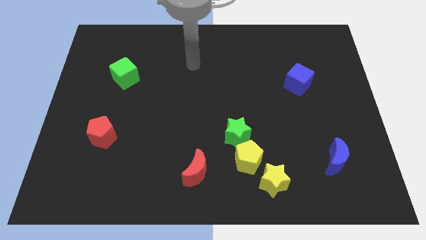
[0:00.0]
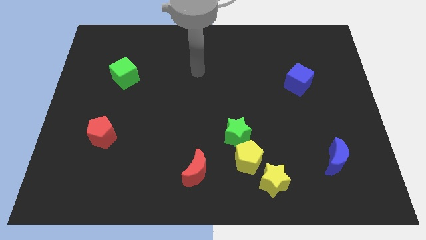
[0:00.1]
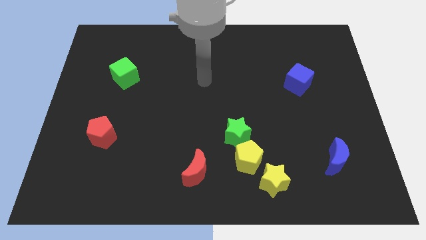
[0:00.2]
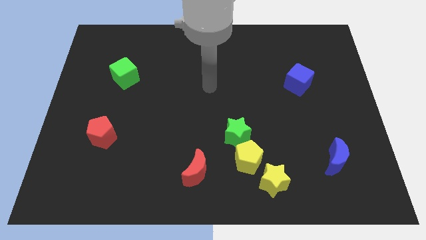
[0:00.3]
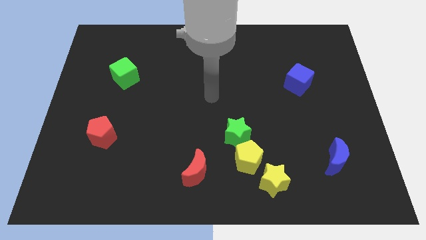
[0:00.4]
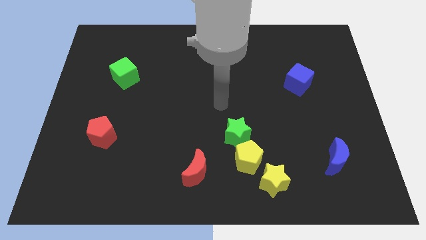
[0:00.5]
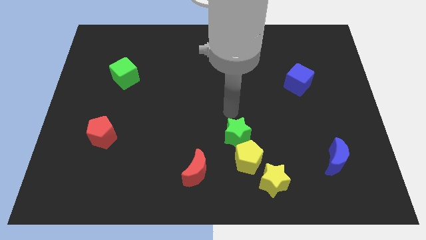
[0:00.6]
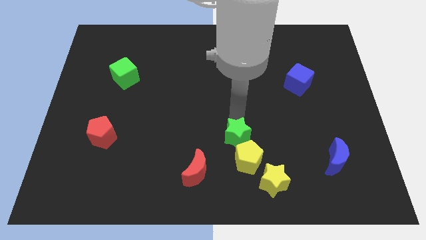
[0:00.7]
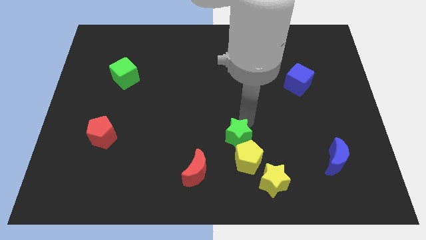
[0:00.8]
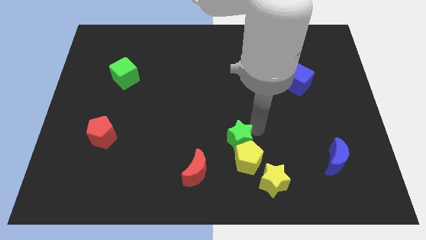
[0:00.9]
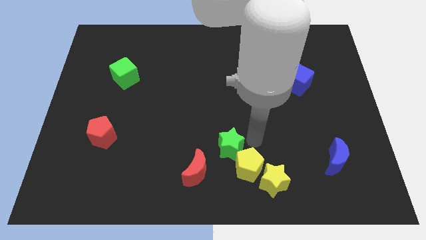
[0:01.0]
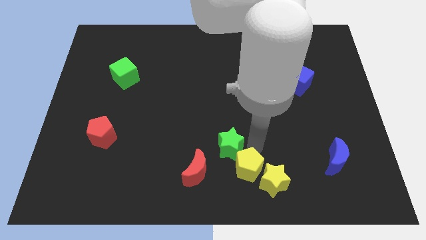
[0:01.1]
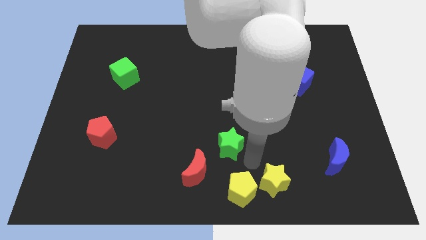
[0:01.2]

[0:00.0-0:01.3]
pull the green star apart from the yellow pentagon

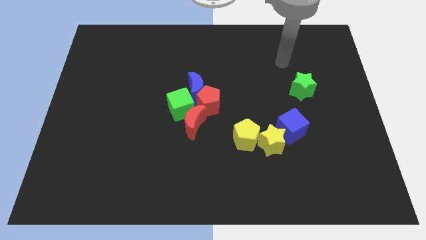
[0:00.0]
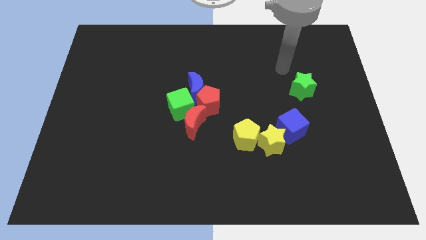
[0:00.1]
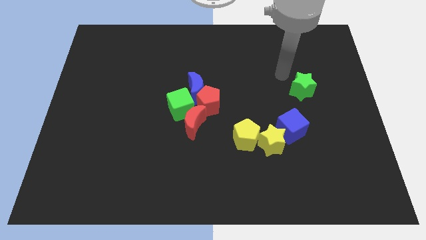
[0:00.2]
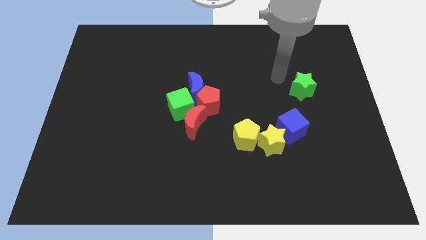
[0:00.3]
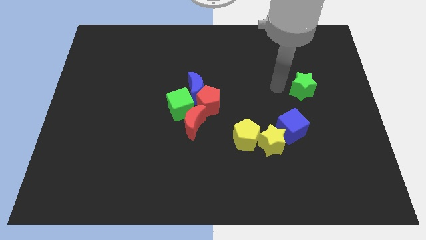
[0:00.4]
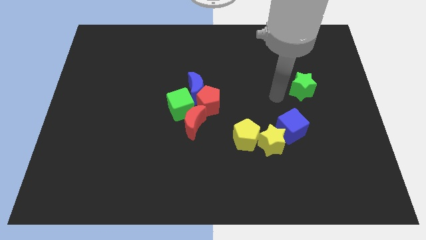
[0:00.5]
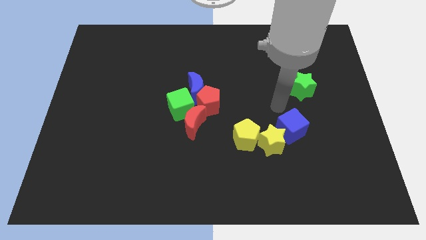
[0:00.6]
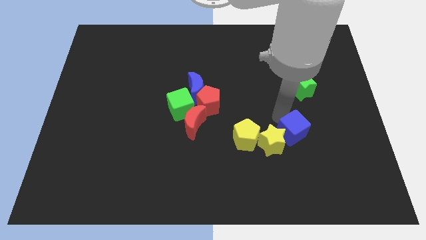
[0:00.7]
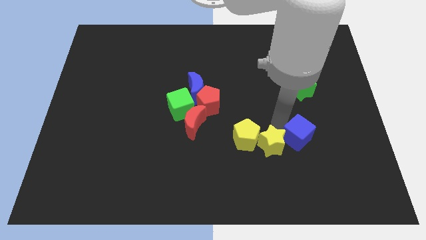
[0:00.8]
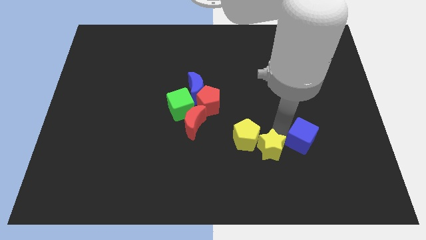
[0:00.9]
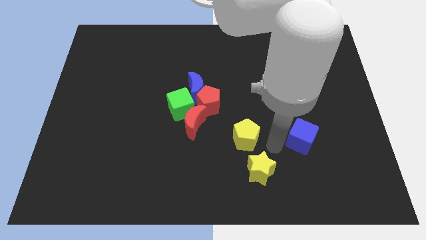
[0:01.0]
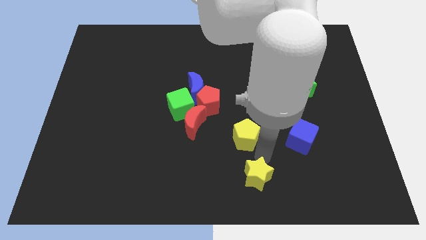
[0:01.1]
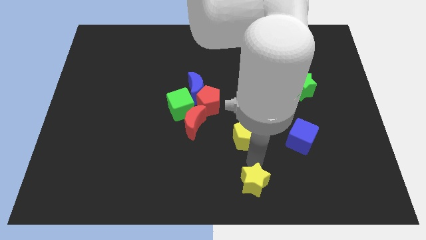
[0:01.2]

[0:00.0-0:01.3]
separate the yellow pentagon from the yellow star

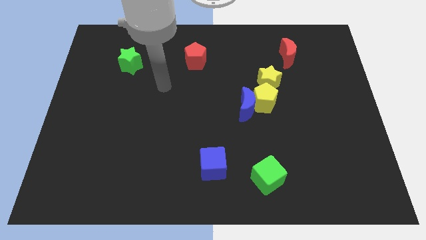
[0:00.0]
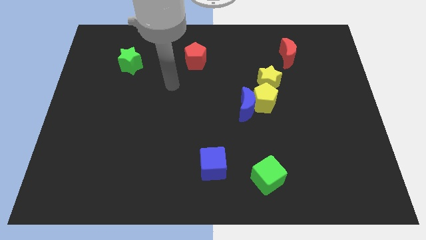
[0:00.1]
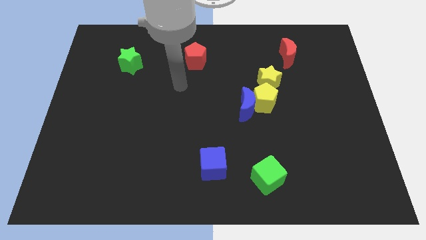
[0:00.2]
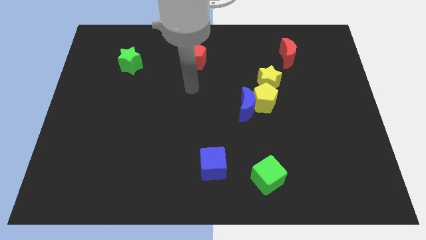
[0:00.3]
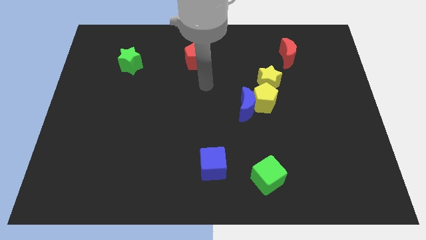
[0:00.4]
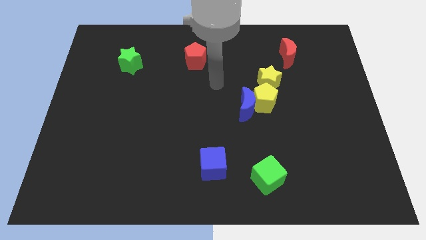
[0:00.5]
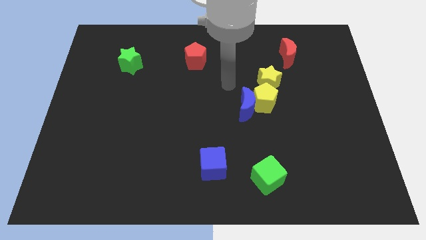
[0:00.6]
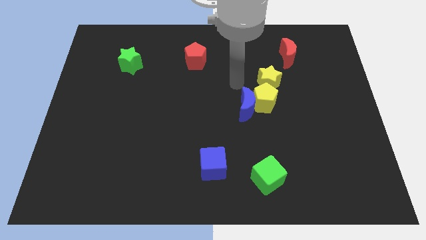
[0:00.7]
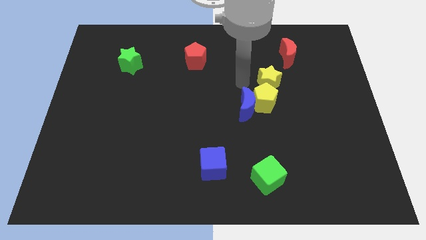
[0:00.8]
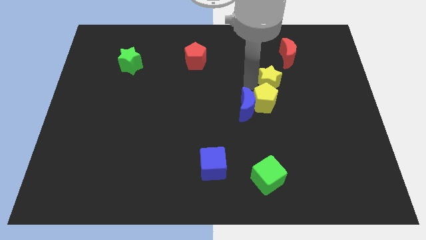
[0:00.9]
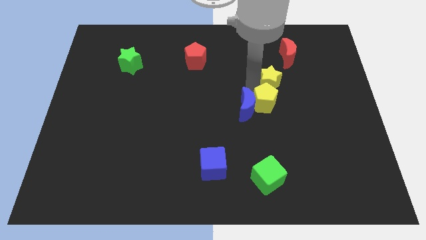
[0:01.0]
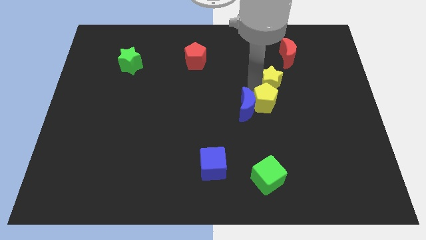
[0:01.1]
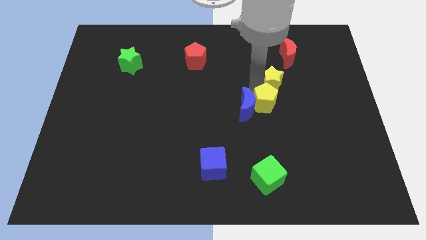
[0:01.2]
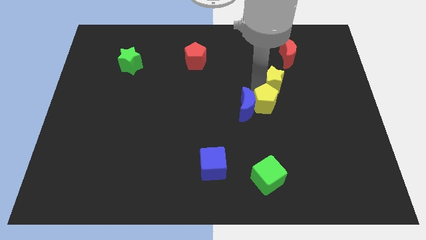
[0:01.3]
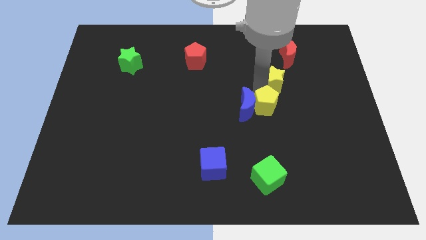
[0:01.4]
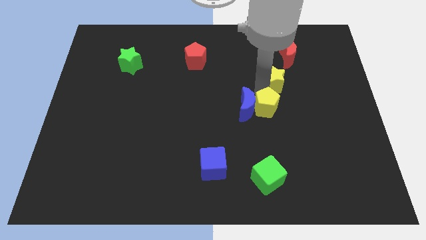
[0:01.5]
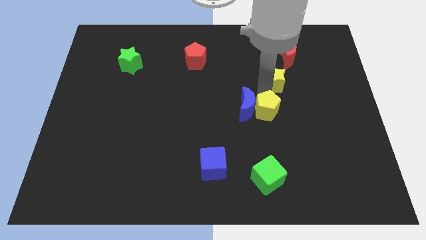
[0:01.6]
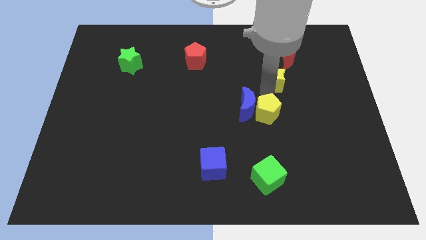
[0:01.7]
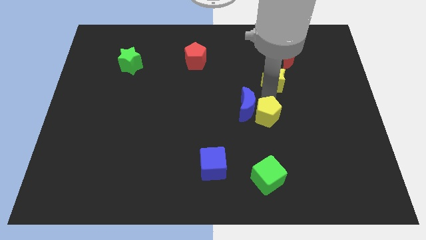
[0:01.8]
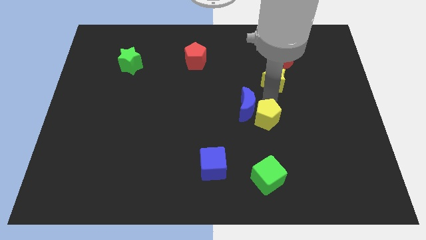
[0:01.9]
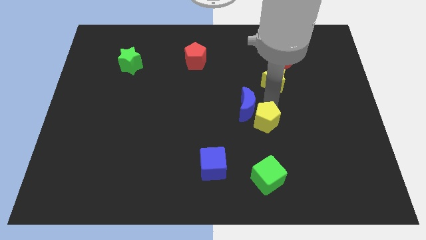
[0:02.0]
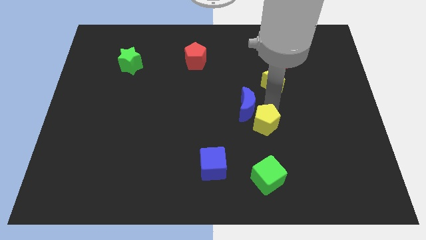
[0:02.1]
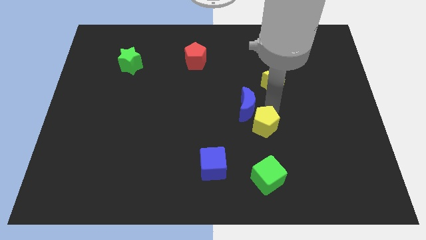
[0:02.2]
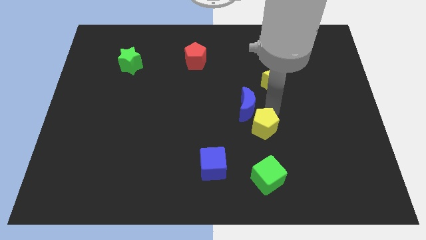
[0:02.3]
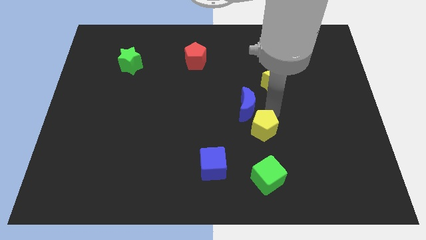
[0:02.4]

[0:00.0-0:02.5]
separate the yellow pentagon from the blue moon and yellow star

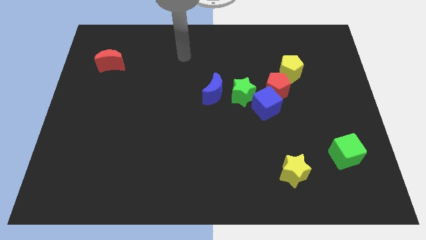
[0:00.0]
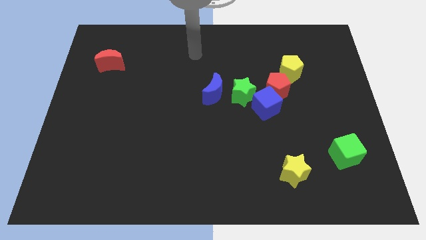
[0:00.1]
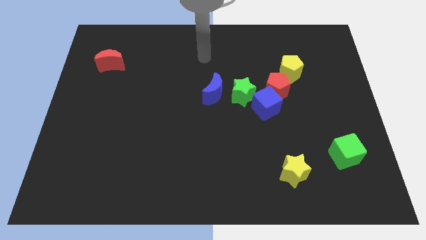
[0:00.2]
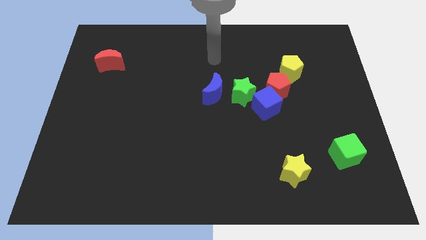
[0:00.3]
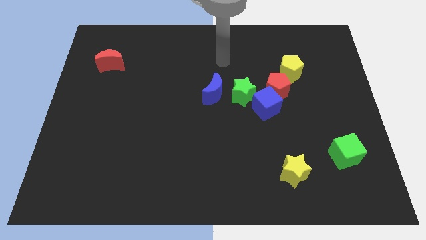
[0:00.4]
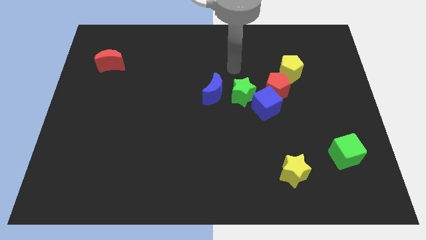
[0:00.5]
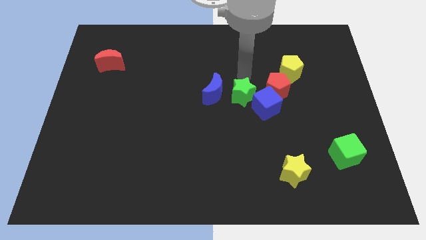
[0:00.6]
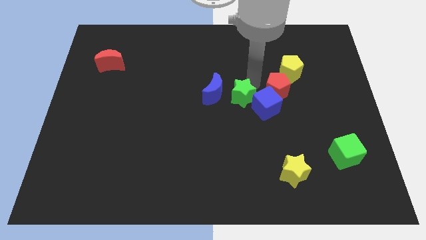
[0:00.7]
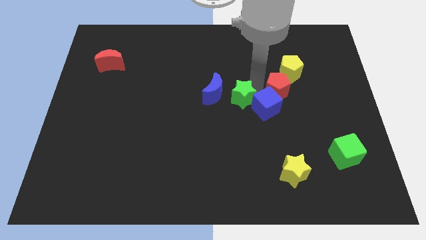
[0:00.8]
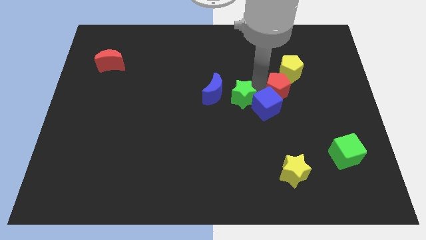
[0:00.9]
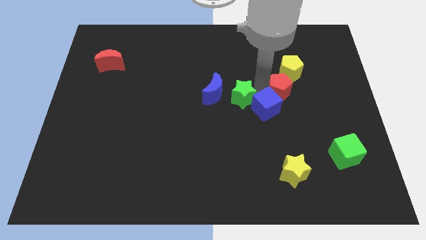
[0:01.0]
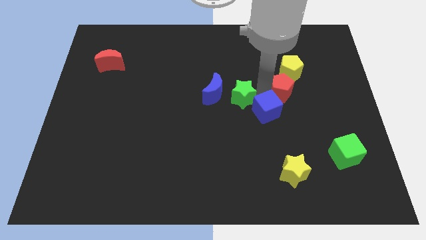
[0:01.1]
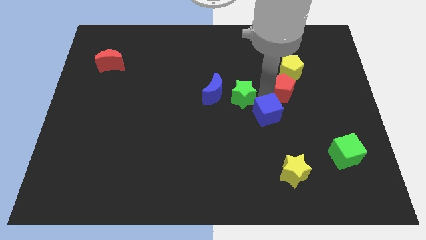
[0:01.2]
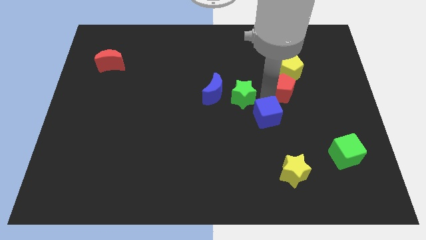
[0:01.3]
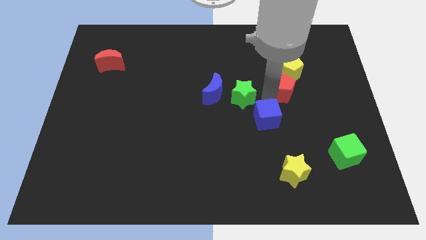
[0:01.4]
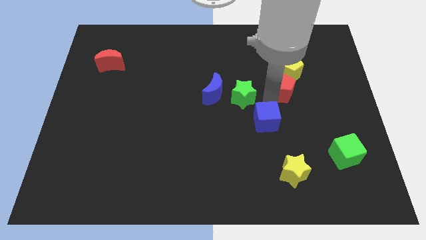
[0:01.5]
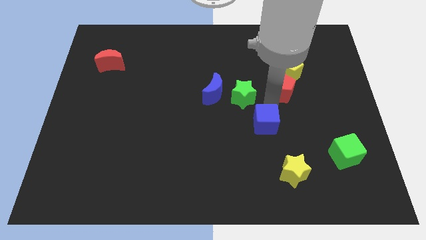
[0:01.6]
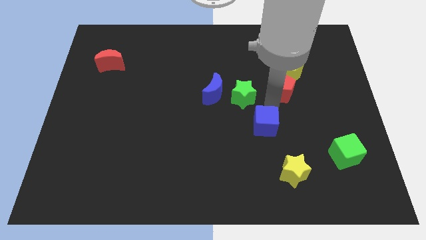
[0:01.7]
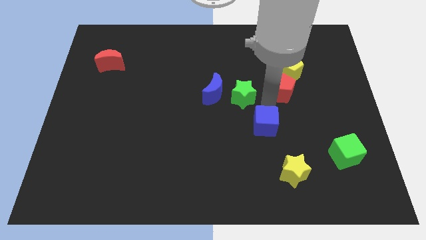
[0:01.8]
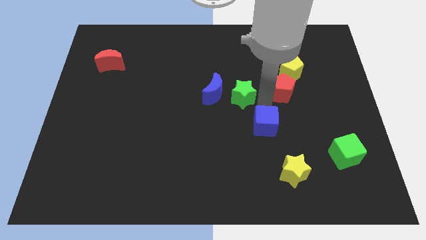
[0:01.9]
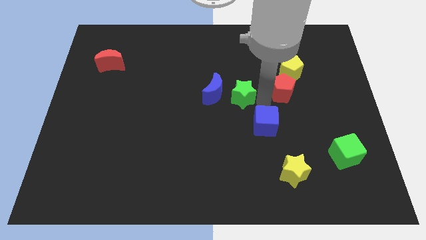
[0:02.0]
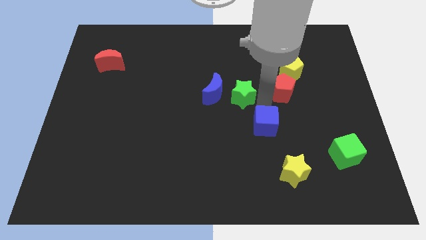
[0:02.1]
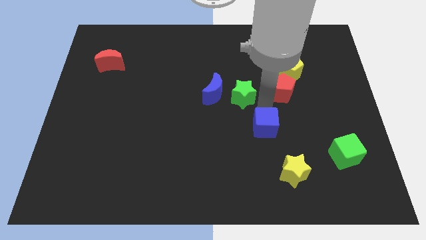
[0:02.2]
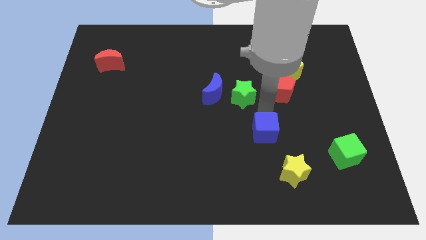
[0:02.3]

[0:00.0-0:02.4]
move the blue cube away from the red pentagon and green star

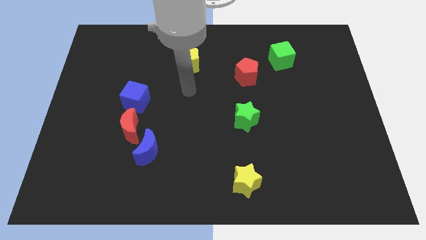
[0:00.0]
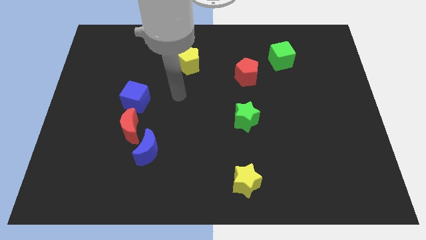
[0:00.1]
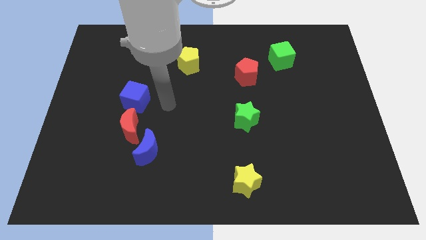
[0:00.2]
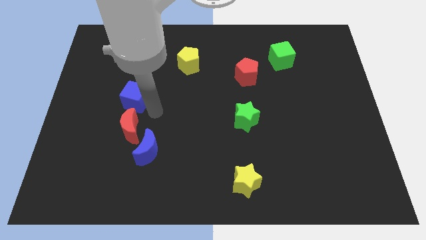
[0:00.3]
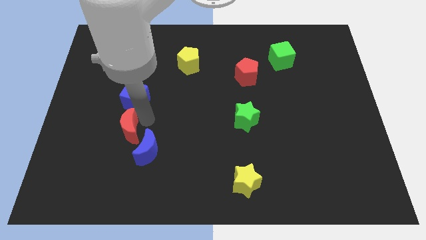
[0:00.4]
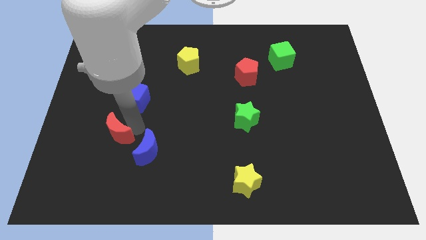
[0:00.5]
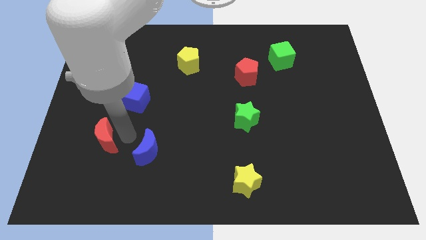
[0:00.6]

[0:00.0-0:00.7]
pull the blue moon apart from the red moon

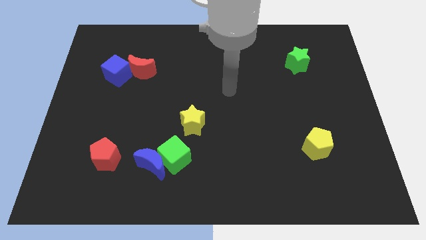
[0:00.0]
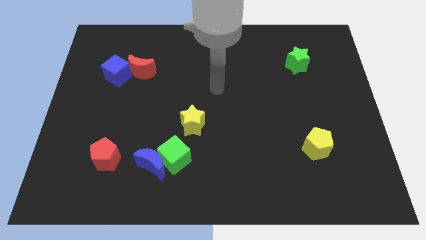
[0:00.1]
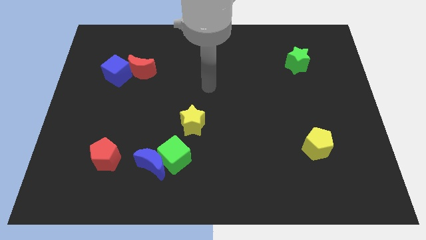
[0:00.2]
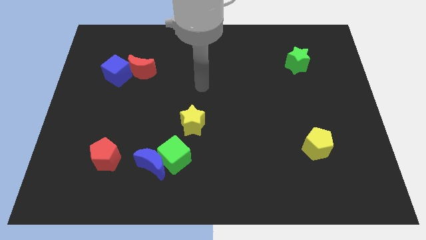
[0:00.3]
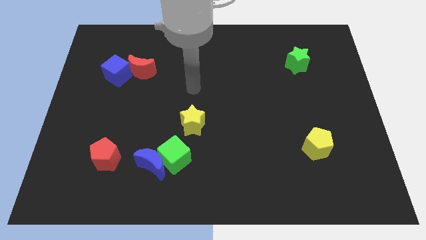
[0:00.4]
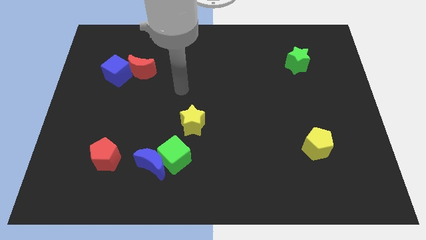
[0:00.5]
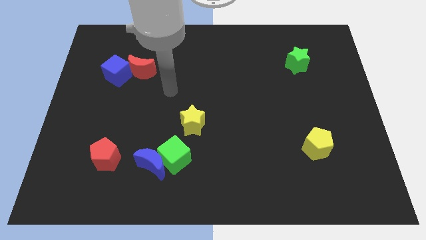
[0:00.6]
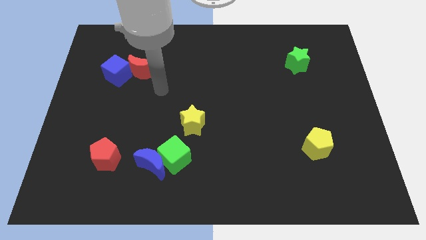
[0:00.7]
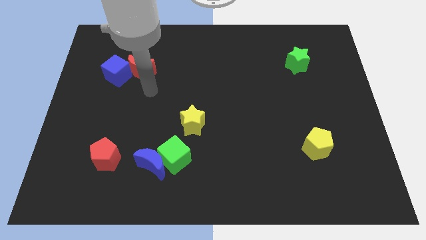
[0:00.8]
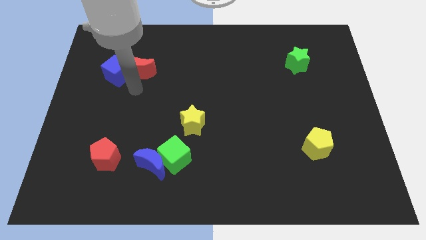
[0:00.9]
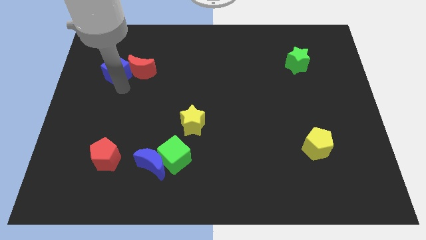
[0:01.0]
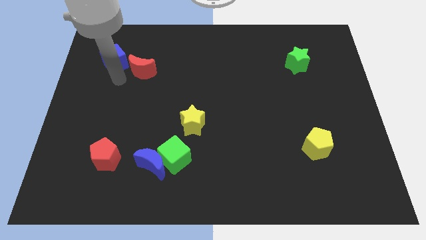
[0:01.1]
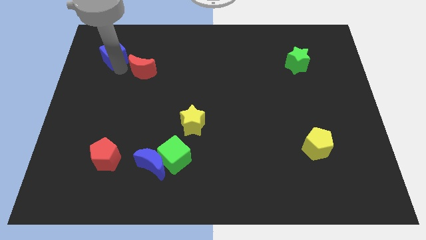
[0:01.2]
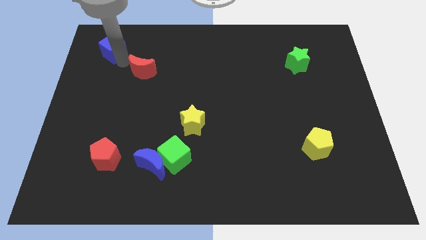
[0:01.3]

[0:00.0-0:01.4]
move the red moon away from the blue cube
